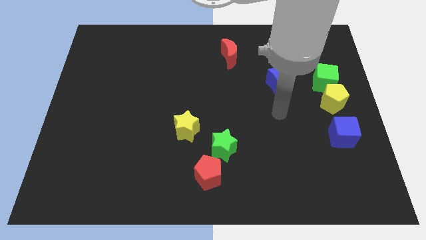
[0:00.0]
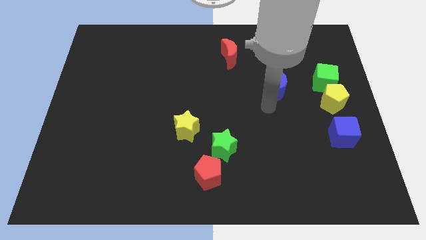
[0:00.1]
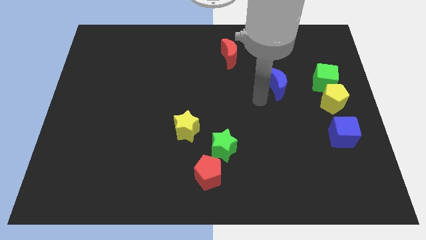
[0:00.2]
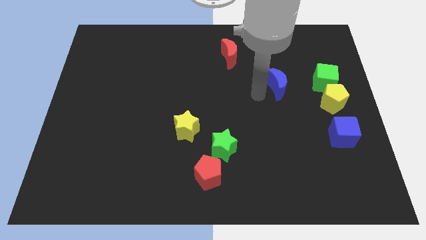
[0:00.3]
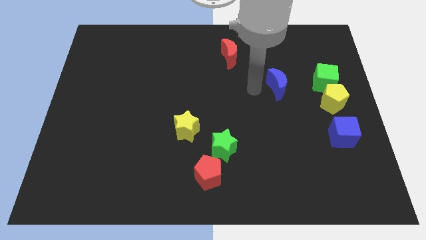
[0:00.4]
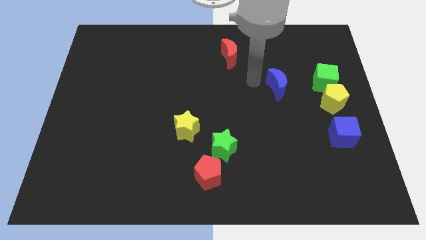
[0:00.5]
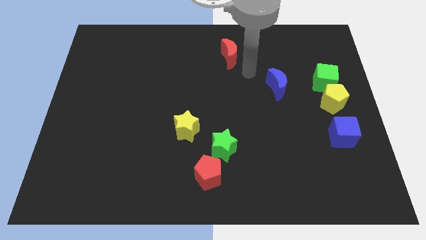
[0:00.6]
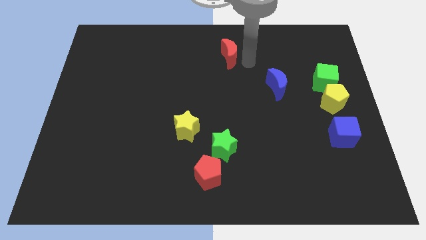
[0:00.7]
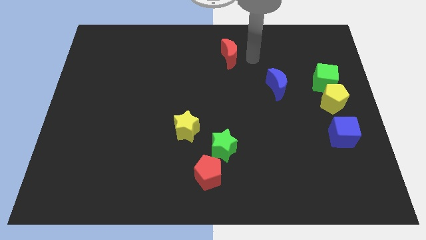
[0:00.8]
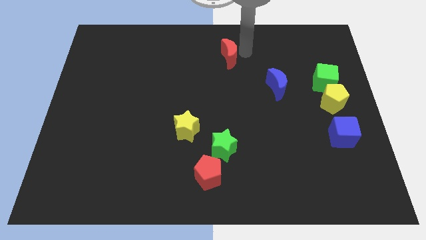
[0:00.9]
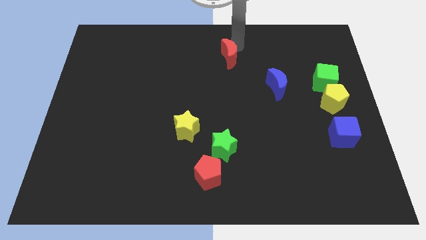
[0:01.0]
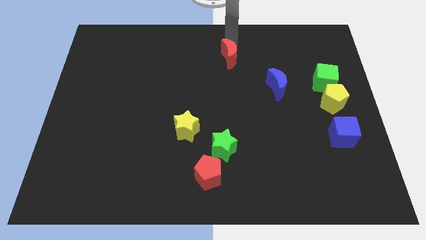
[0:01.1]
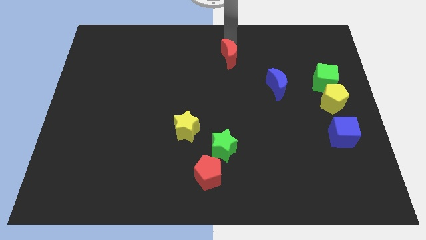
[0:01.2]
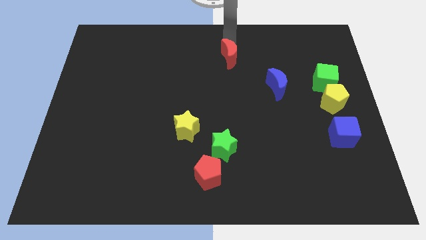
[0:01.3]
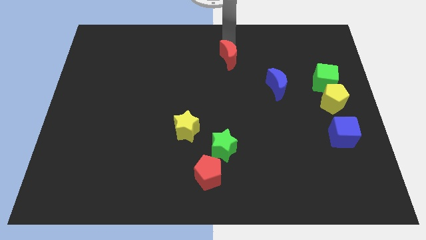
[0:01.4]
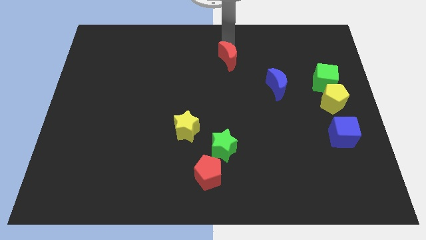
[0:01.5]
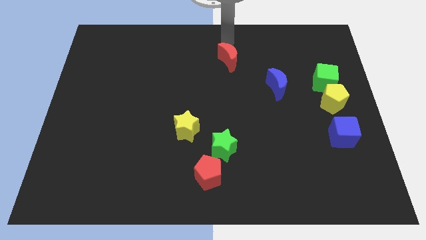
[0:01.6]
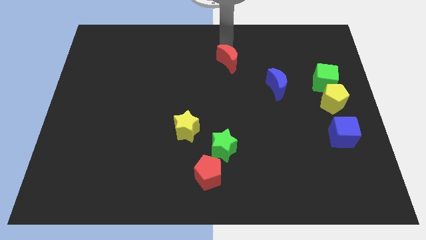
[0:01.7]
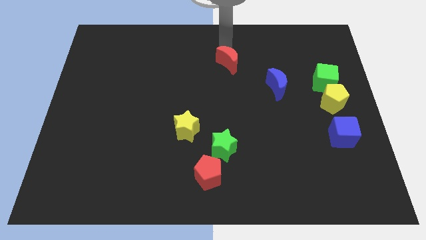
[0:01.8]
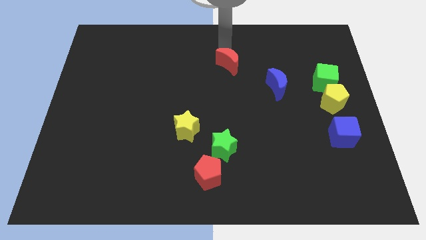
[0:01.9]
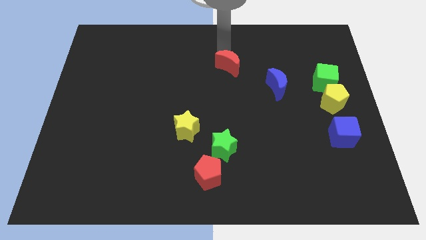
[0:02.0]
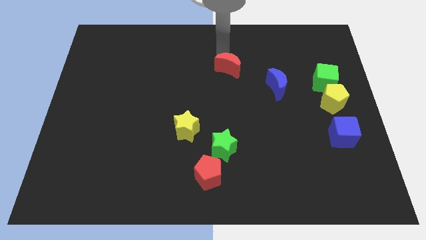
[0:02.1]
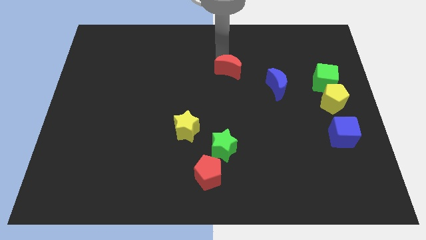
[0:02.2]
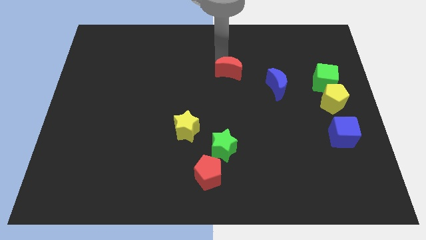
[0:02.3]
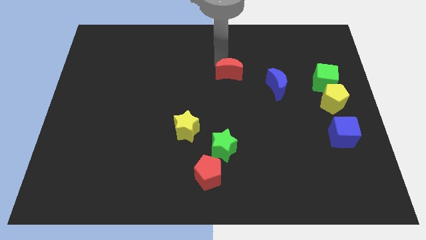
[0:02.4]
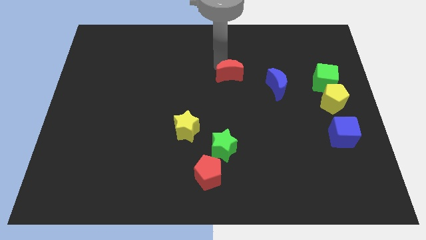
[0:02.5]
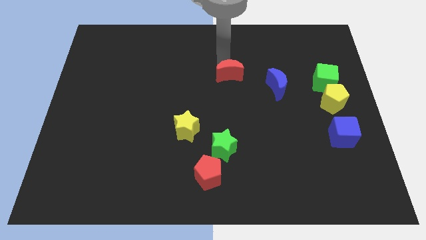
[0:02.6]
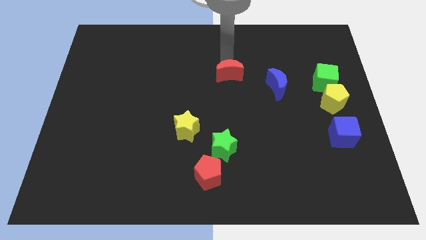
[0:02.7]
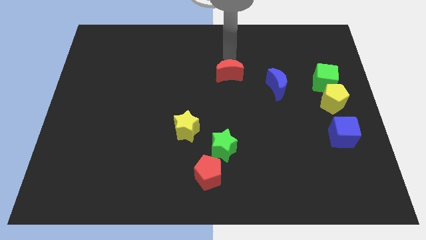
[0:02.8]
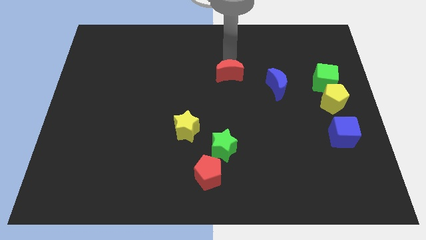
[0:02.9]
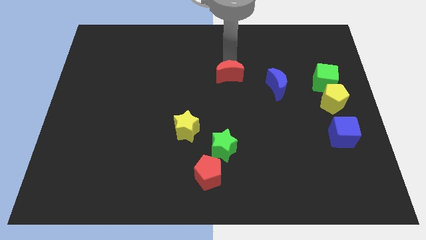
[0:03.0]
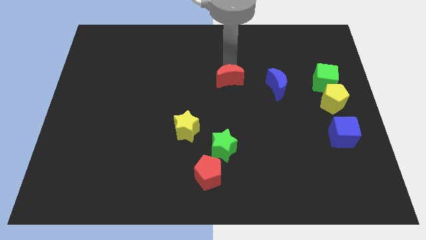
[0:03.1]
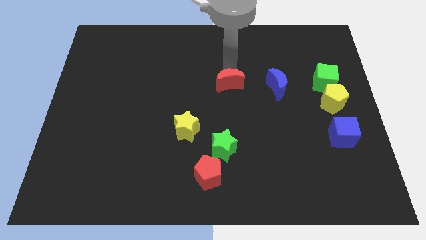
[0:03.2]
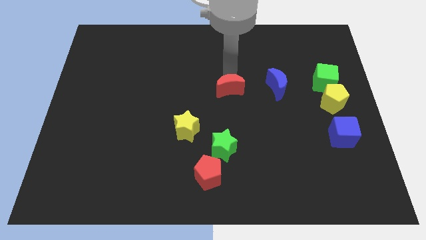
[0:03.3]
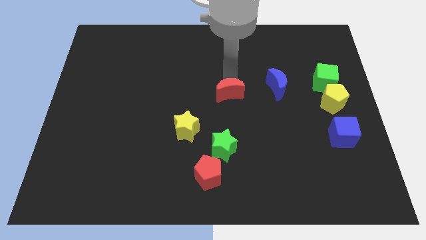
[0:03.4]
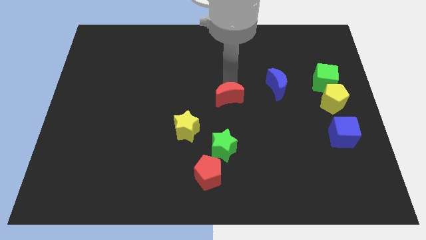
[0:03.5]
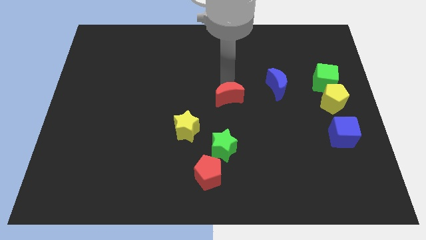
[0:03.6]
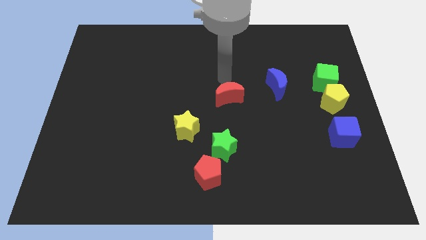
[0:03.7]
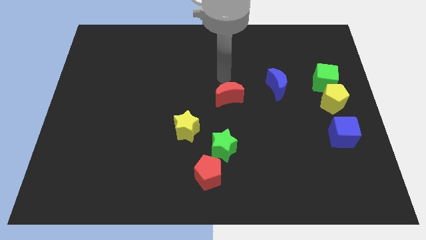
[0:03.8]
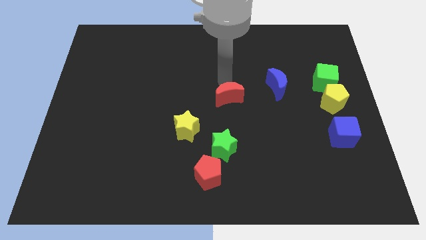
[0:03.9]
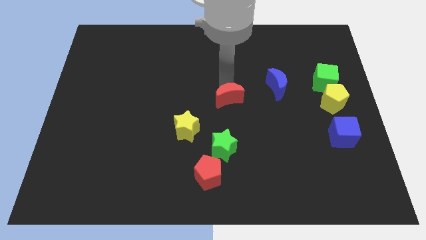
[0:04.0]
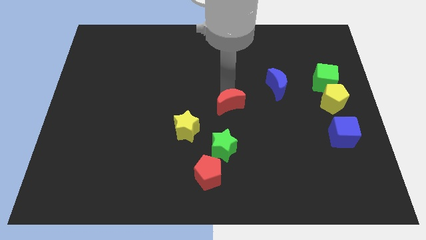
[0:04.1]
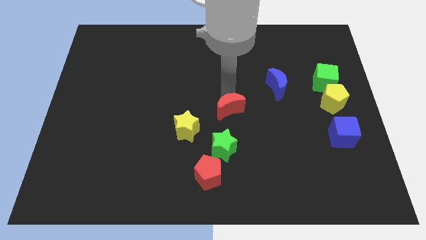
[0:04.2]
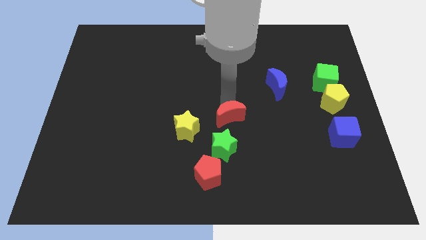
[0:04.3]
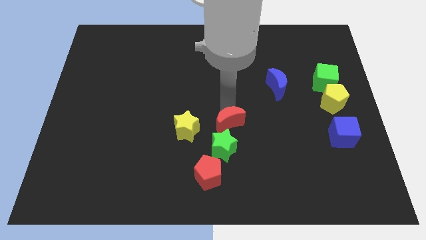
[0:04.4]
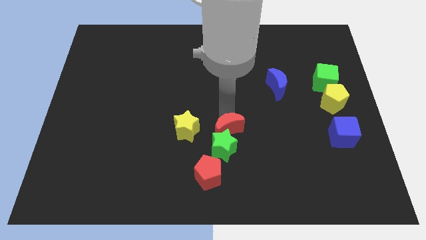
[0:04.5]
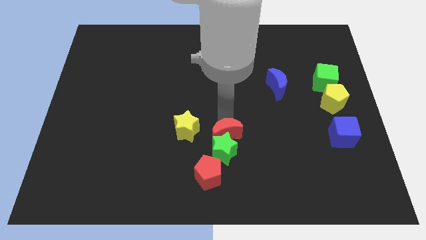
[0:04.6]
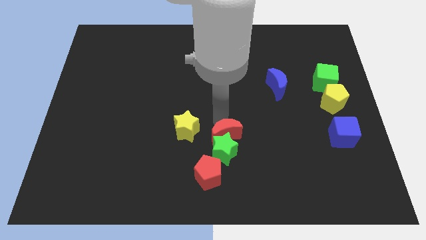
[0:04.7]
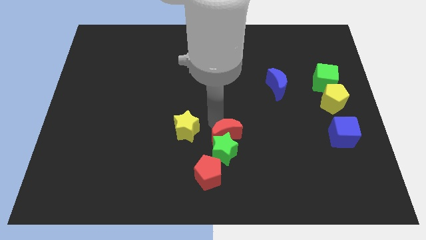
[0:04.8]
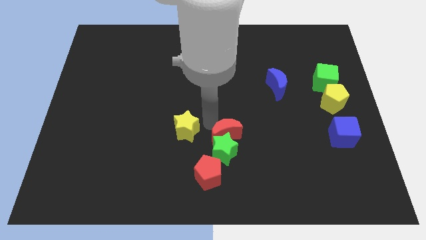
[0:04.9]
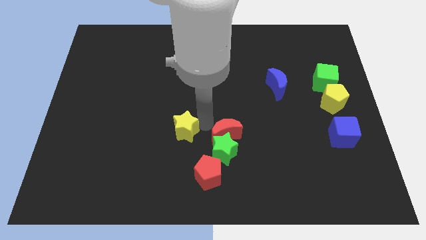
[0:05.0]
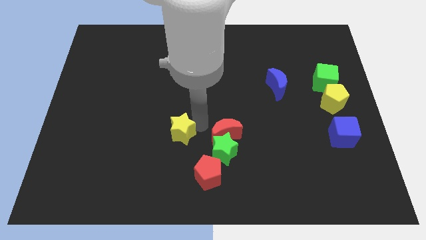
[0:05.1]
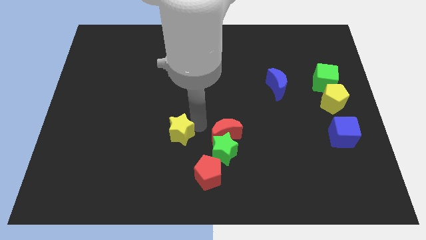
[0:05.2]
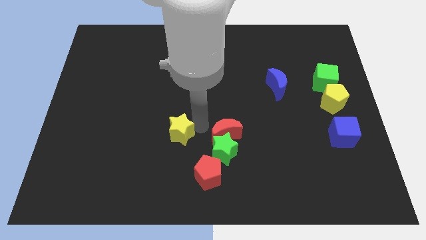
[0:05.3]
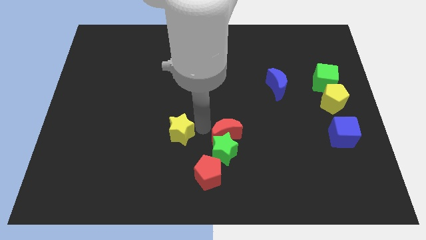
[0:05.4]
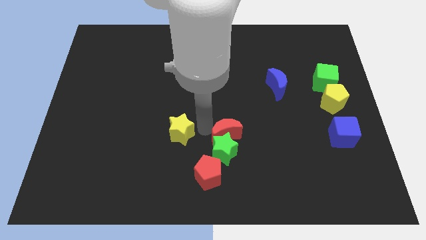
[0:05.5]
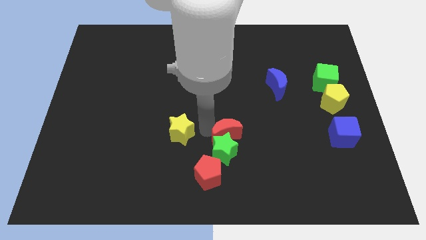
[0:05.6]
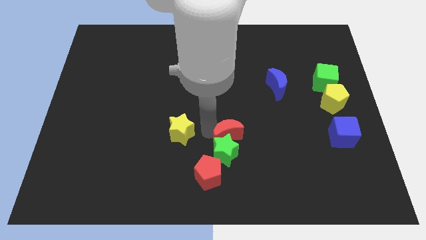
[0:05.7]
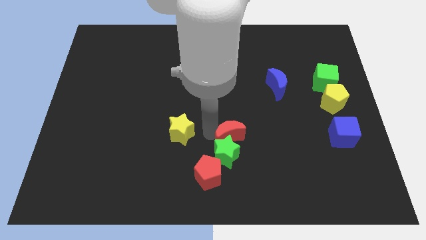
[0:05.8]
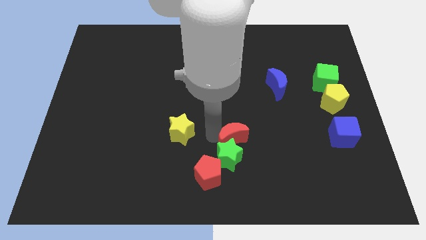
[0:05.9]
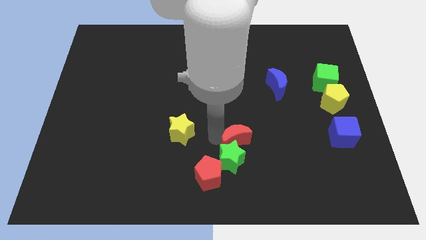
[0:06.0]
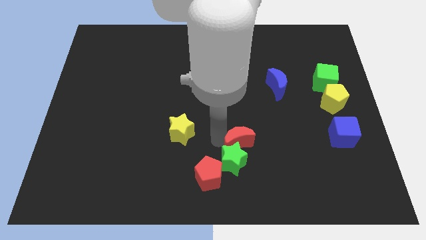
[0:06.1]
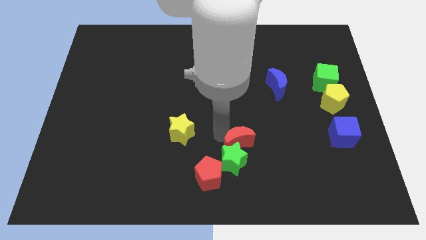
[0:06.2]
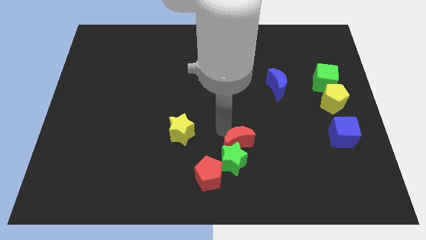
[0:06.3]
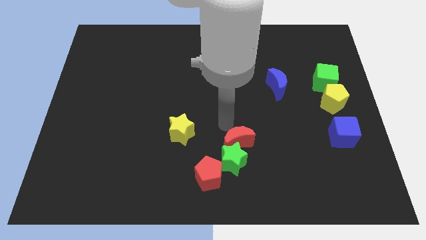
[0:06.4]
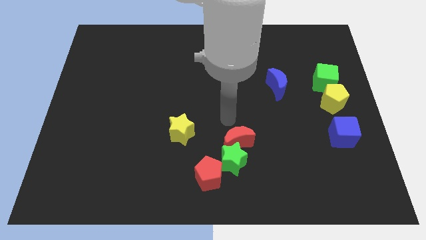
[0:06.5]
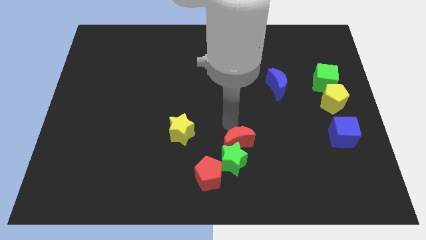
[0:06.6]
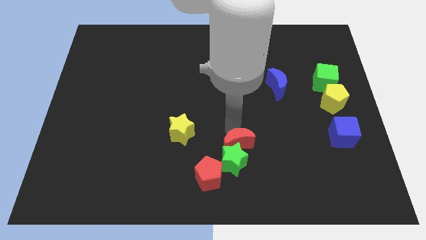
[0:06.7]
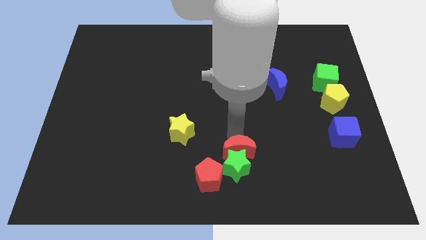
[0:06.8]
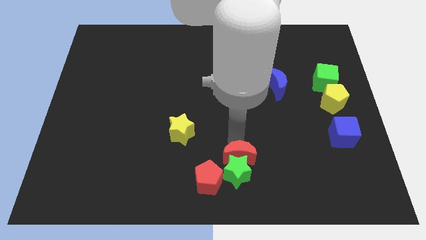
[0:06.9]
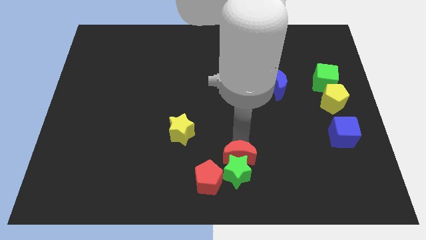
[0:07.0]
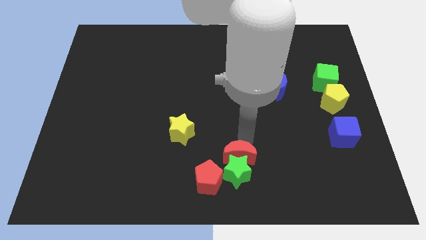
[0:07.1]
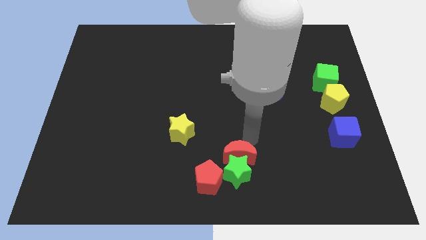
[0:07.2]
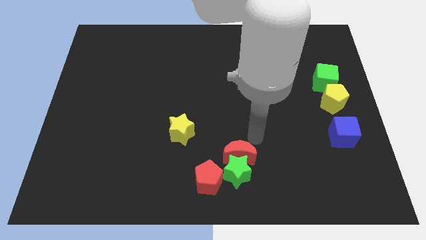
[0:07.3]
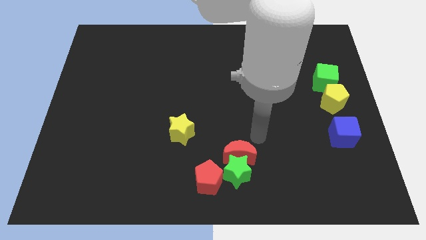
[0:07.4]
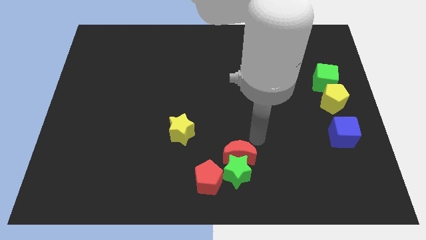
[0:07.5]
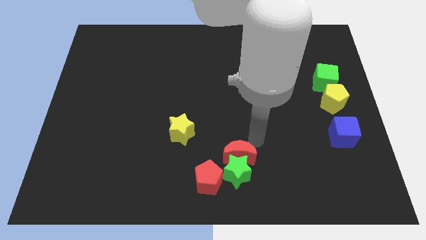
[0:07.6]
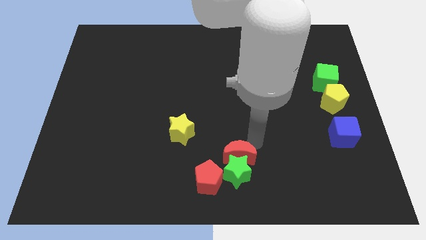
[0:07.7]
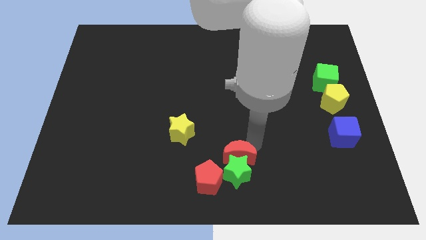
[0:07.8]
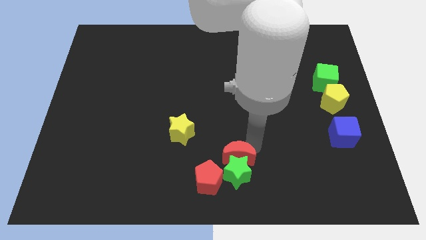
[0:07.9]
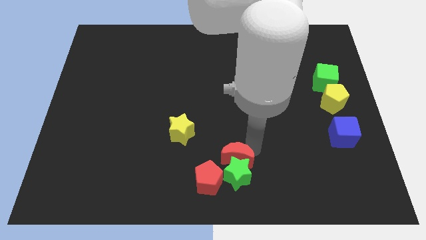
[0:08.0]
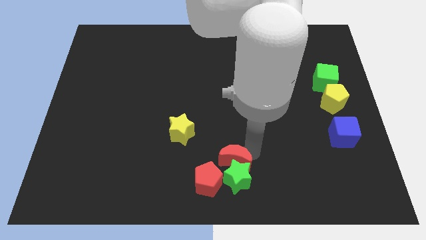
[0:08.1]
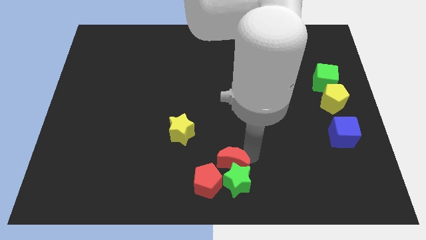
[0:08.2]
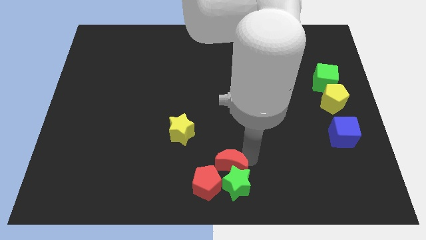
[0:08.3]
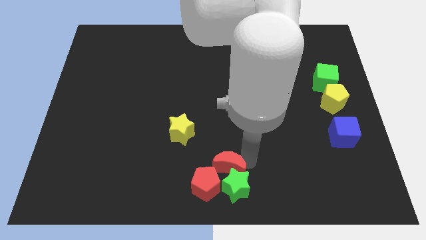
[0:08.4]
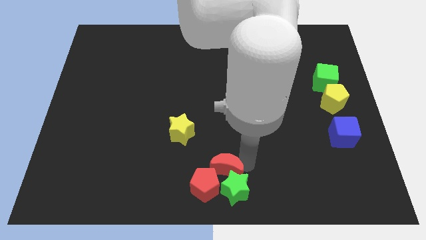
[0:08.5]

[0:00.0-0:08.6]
push the red moon towards the red pentagon
